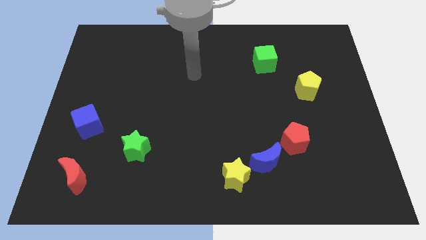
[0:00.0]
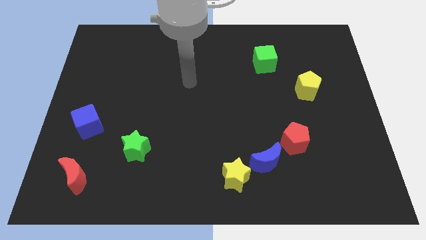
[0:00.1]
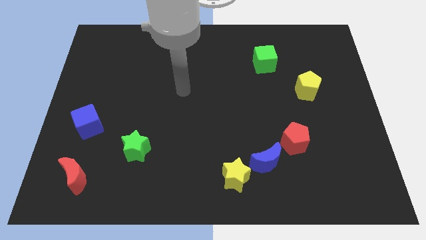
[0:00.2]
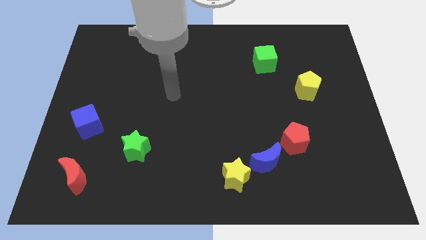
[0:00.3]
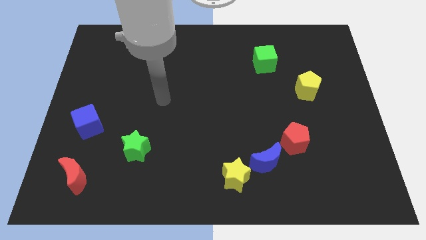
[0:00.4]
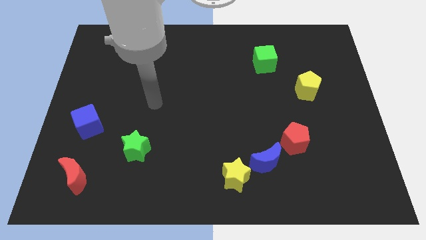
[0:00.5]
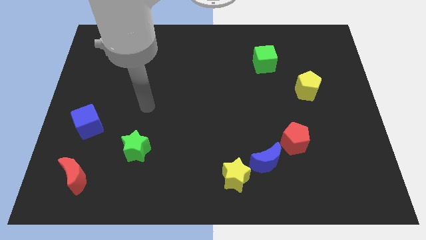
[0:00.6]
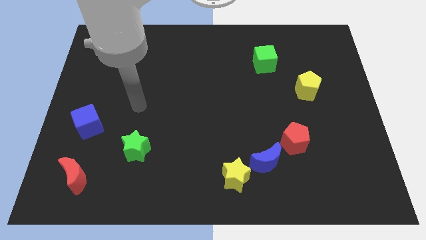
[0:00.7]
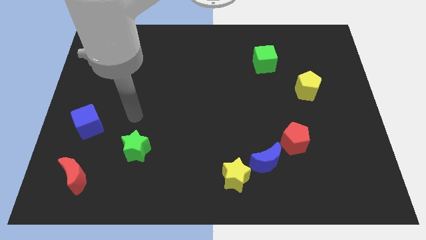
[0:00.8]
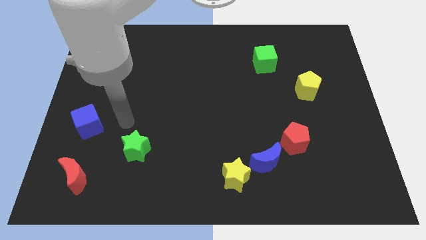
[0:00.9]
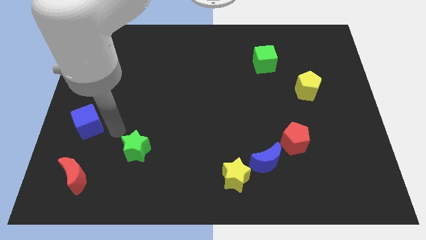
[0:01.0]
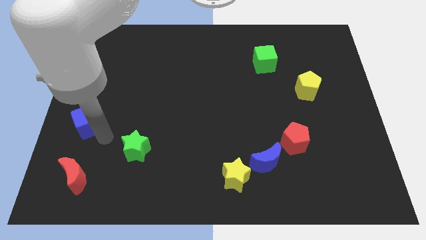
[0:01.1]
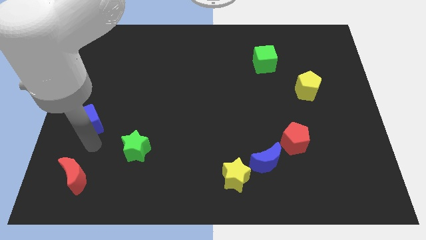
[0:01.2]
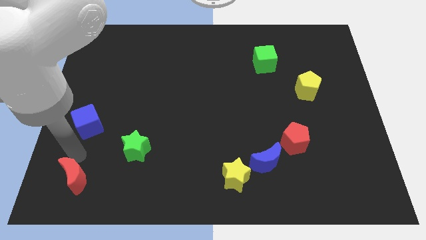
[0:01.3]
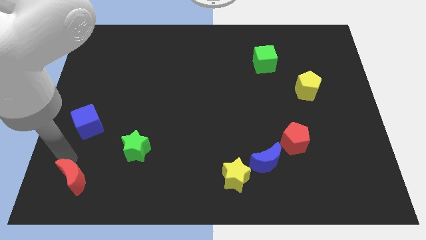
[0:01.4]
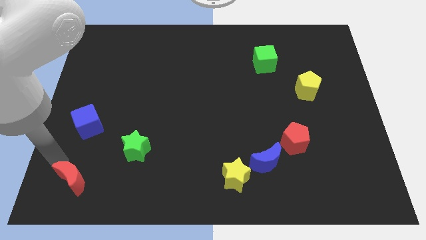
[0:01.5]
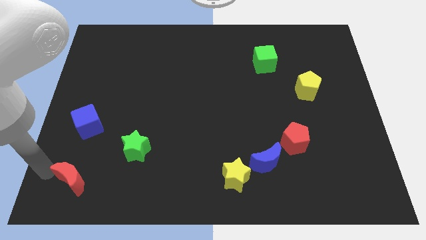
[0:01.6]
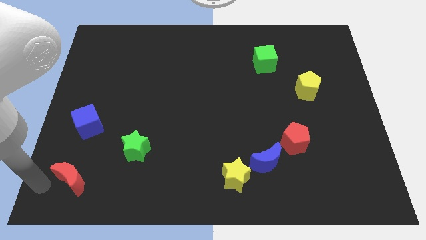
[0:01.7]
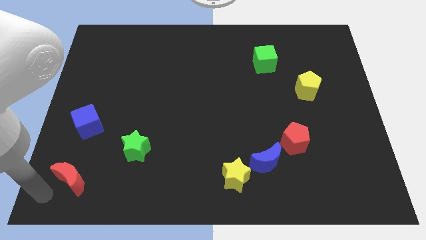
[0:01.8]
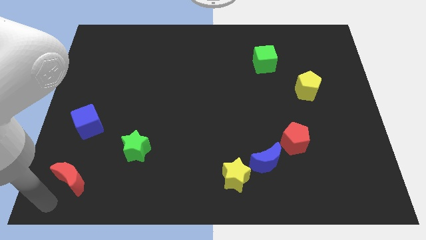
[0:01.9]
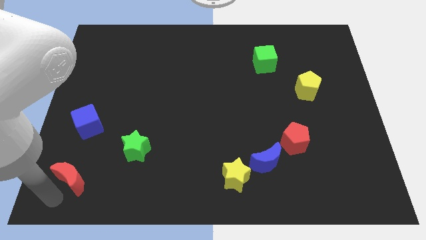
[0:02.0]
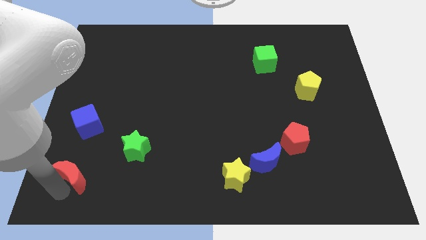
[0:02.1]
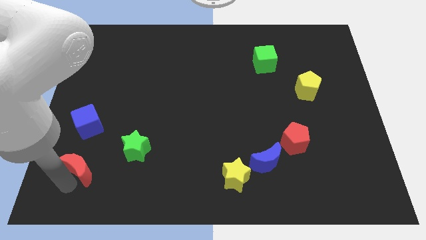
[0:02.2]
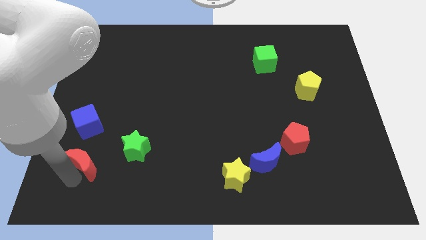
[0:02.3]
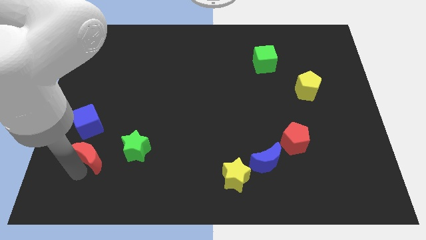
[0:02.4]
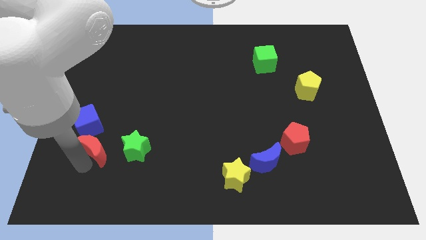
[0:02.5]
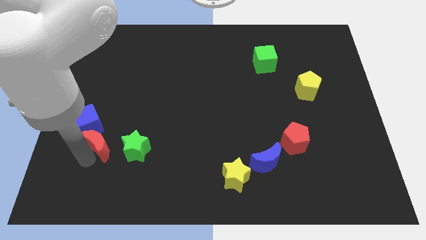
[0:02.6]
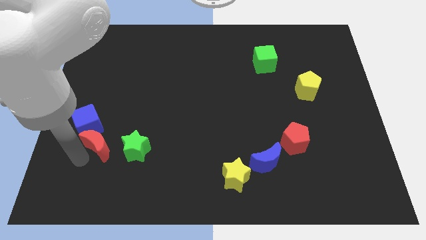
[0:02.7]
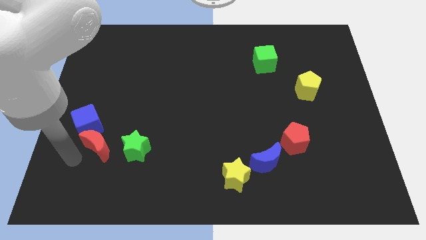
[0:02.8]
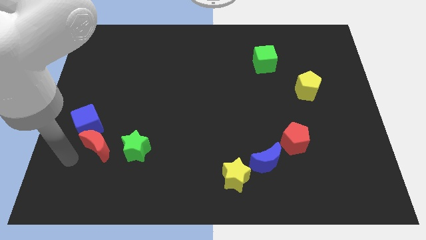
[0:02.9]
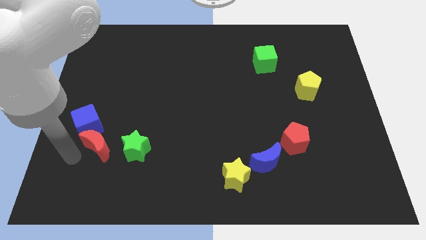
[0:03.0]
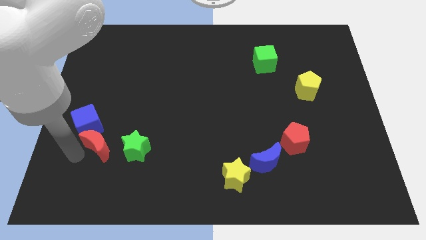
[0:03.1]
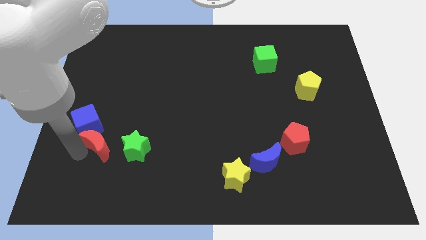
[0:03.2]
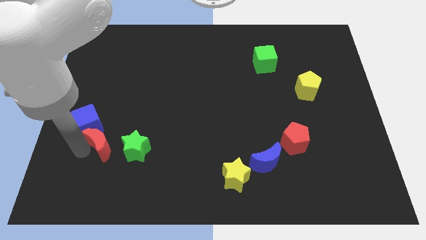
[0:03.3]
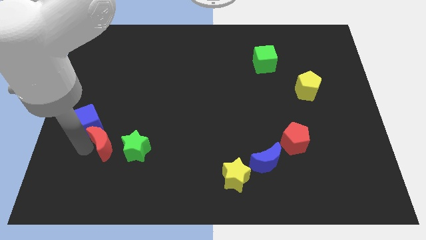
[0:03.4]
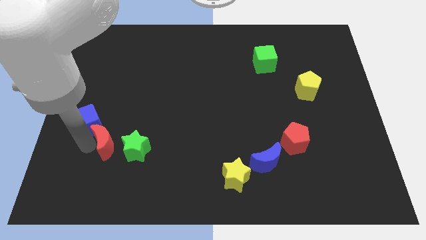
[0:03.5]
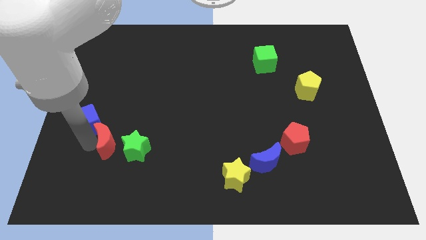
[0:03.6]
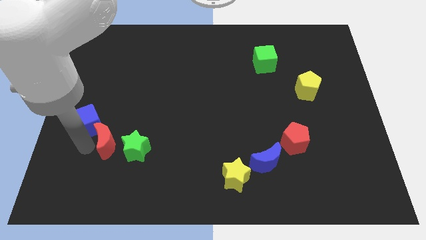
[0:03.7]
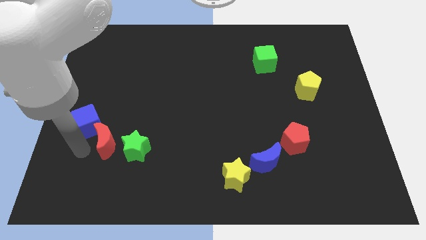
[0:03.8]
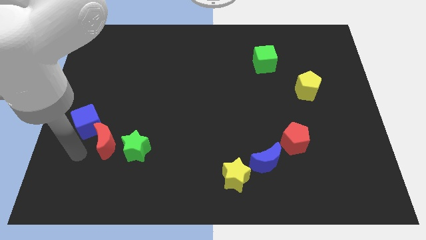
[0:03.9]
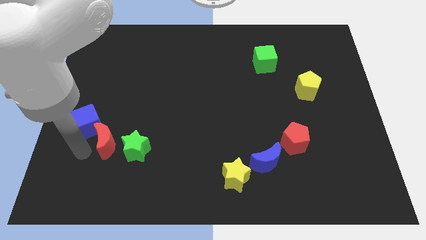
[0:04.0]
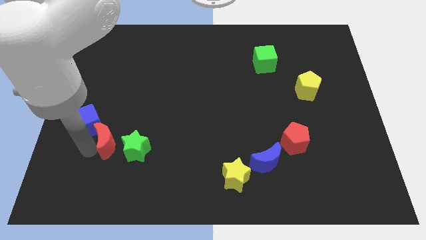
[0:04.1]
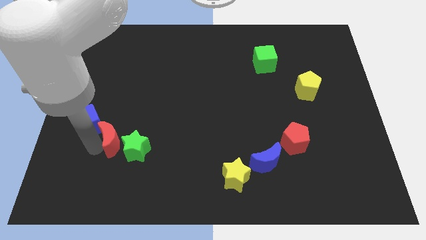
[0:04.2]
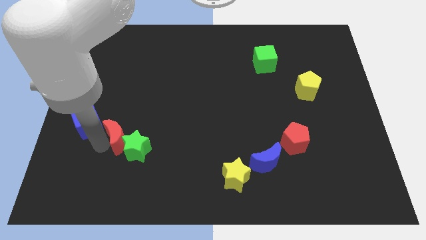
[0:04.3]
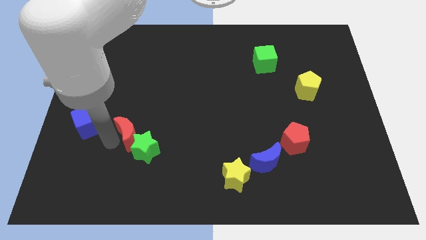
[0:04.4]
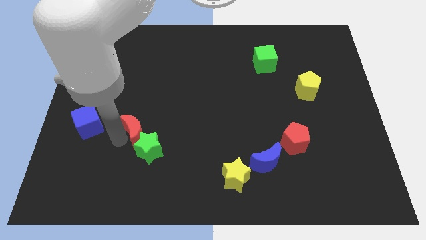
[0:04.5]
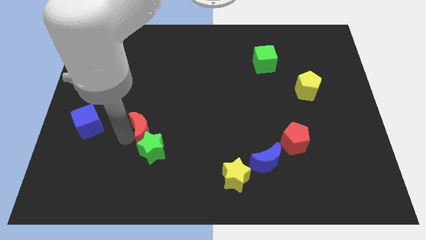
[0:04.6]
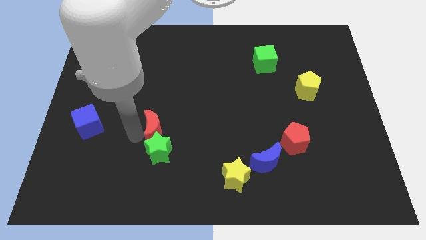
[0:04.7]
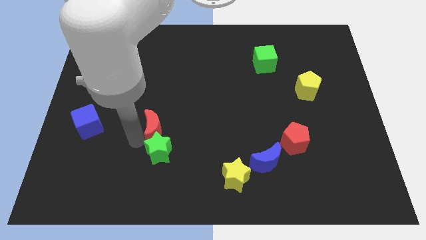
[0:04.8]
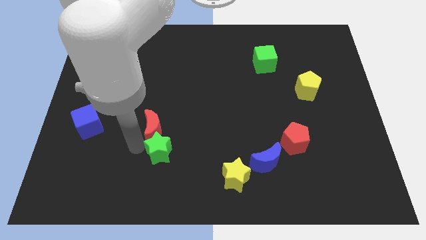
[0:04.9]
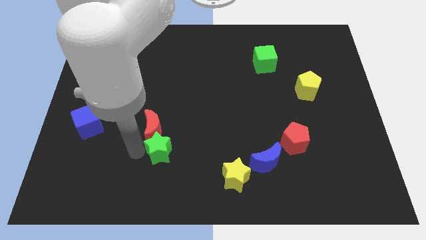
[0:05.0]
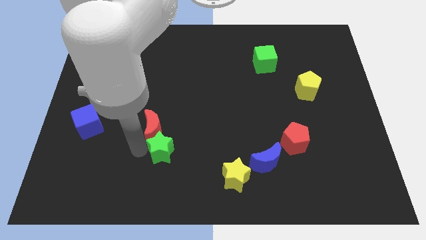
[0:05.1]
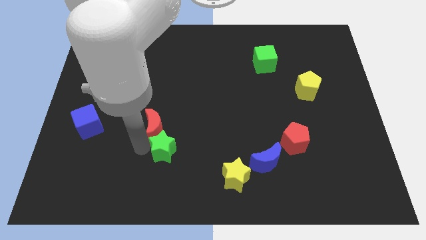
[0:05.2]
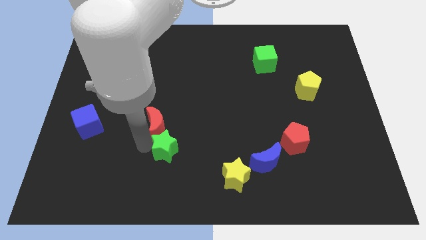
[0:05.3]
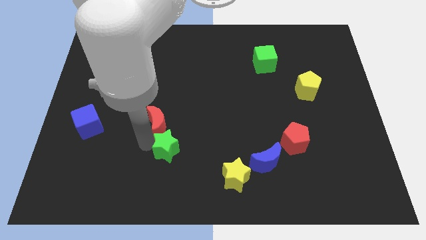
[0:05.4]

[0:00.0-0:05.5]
move the red moon up and to the right

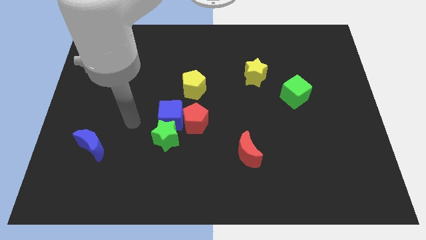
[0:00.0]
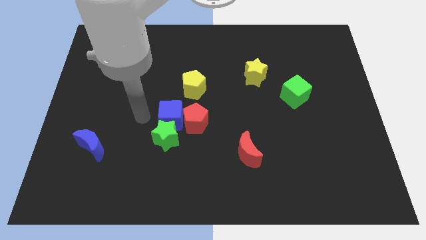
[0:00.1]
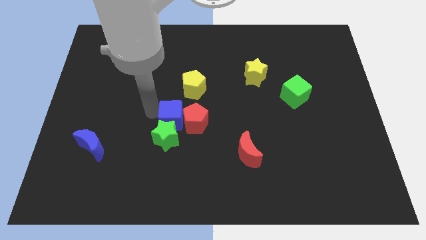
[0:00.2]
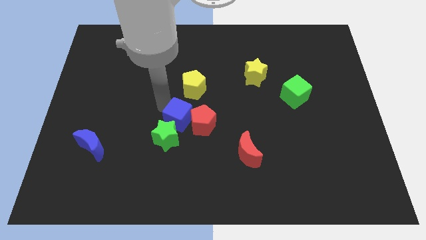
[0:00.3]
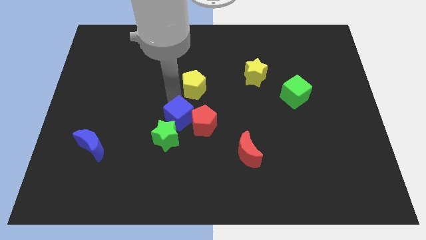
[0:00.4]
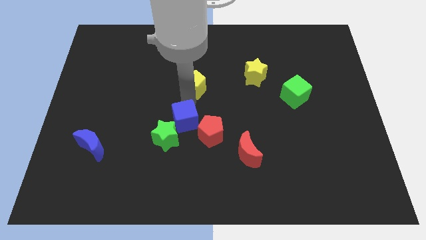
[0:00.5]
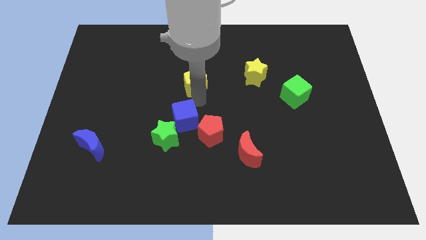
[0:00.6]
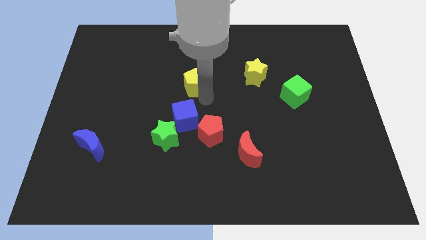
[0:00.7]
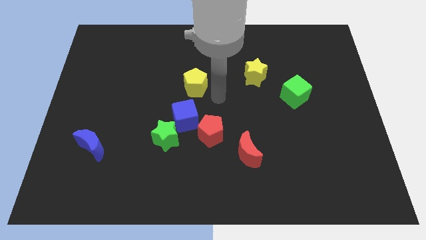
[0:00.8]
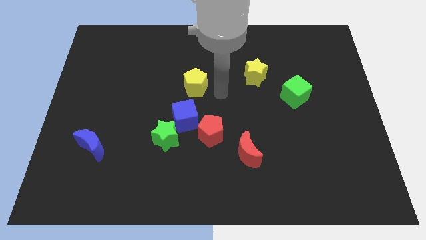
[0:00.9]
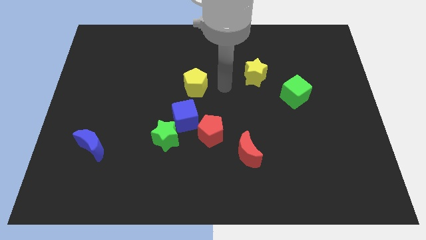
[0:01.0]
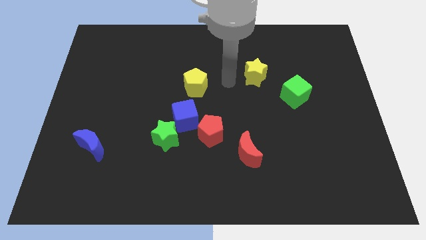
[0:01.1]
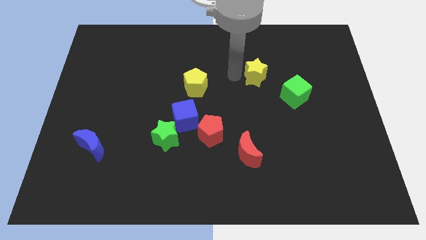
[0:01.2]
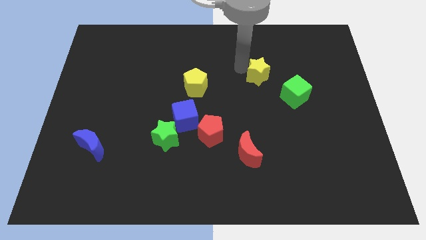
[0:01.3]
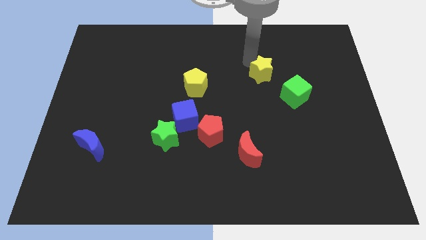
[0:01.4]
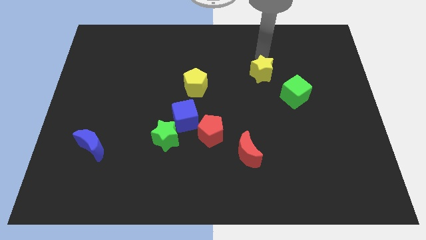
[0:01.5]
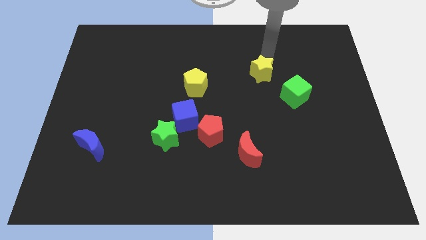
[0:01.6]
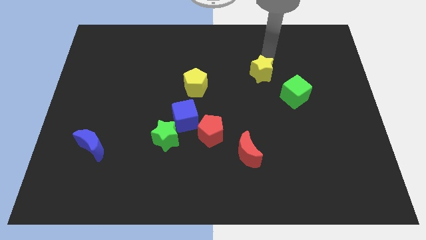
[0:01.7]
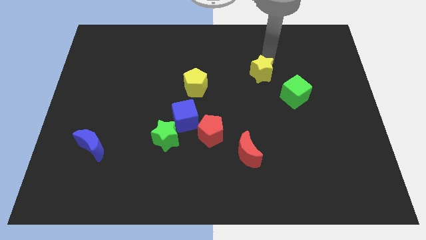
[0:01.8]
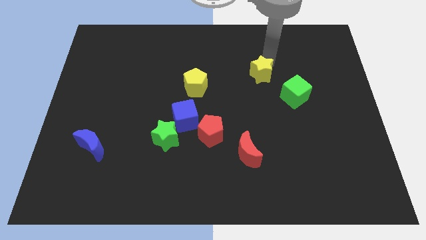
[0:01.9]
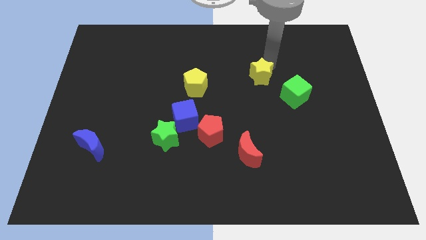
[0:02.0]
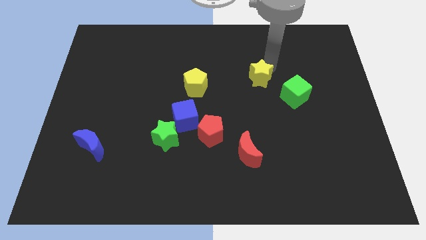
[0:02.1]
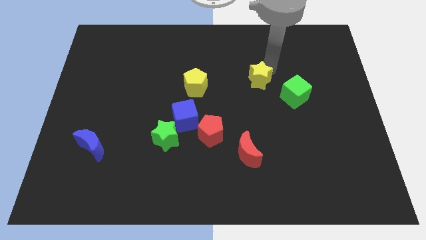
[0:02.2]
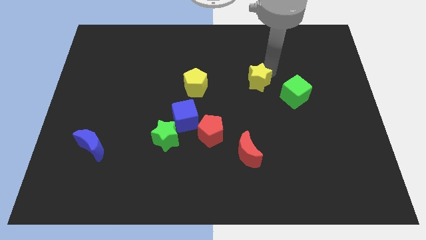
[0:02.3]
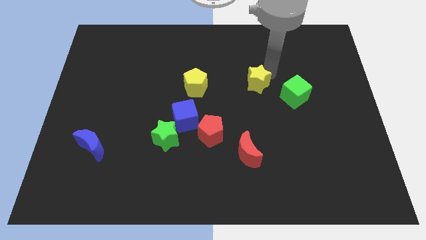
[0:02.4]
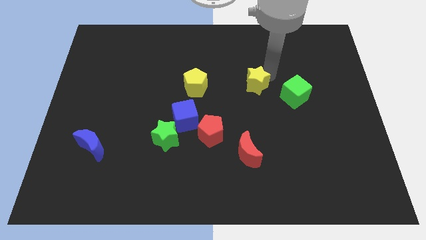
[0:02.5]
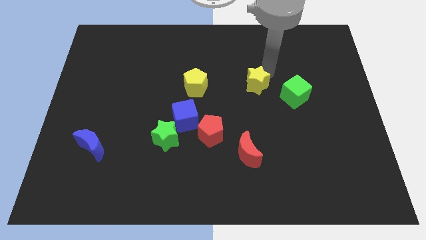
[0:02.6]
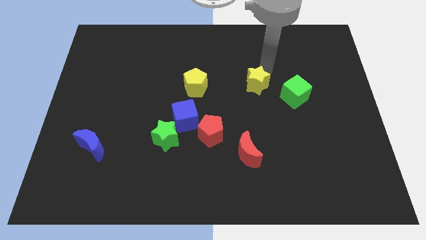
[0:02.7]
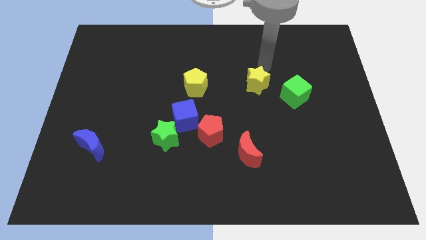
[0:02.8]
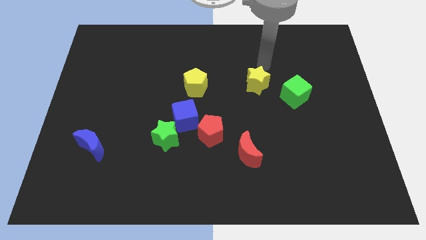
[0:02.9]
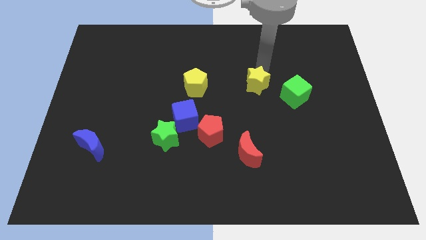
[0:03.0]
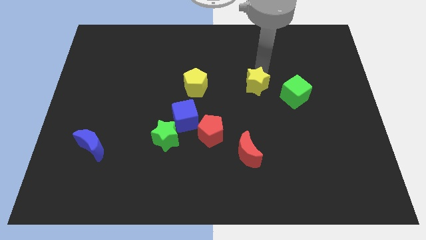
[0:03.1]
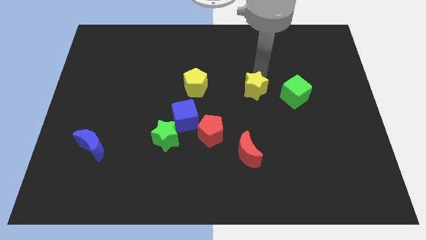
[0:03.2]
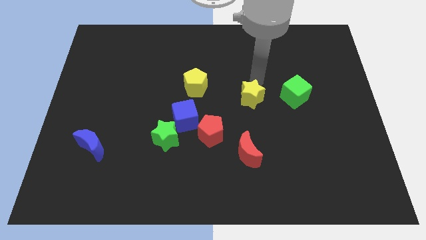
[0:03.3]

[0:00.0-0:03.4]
push the yellow star downwards slightly
